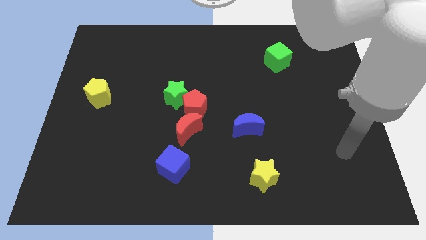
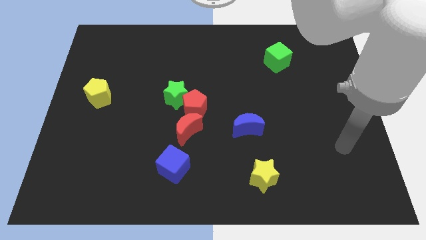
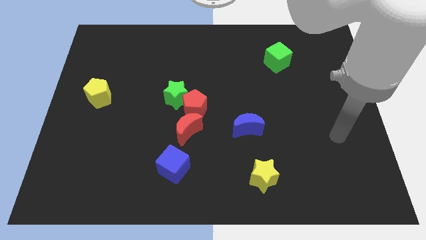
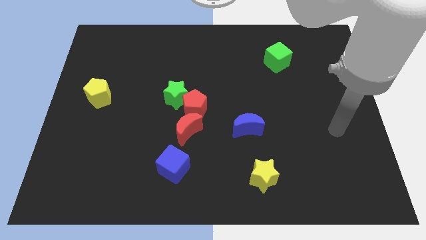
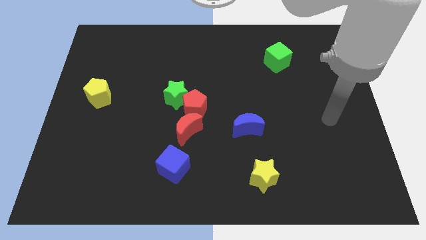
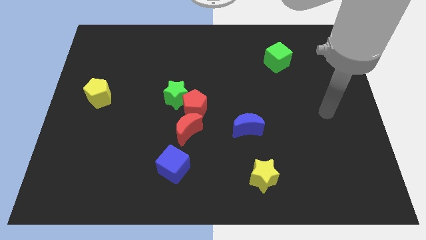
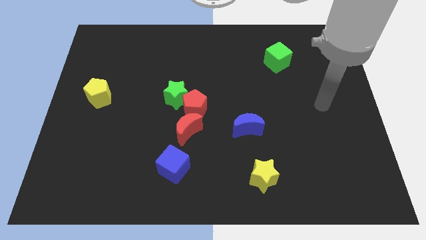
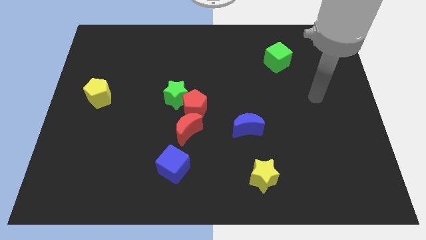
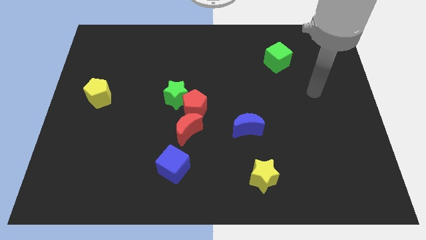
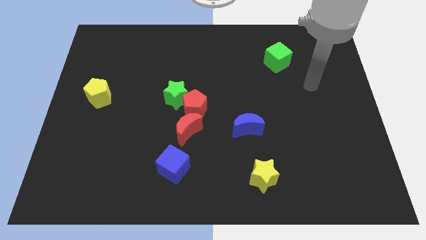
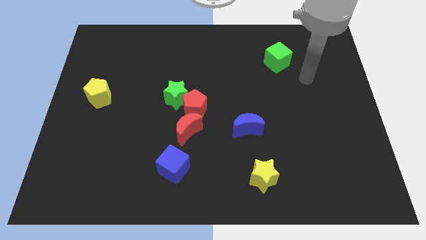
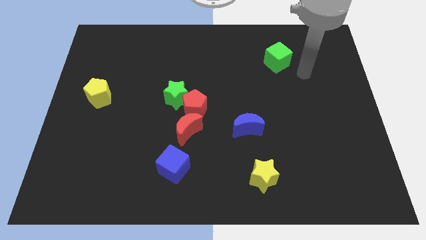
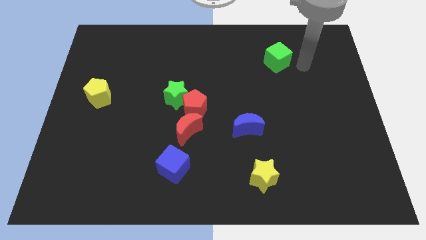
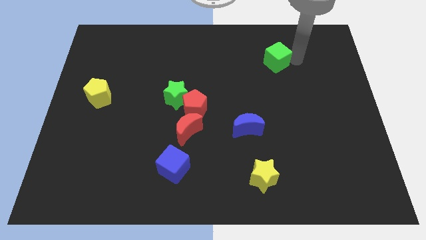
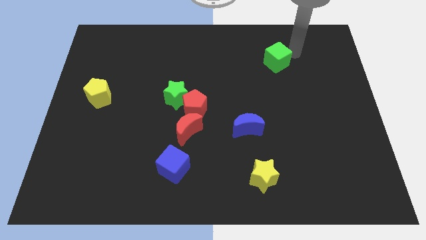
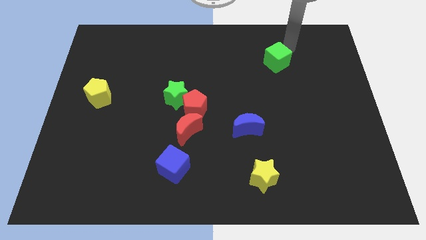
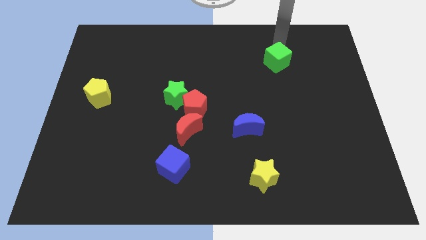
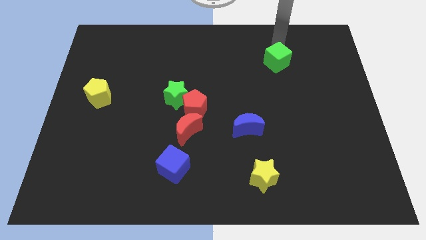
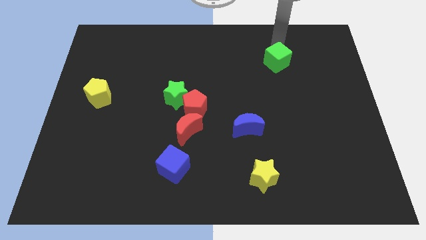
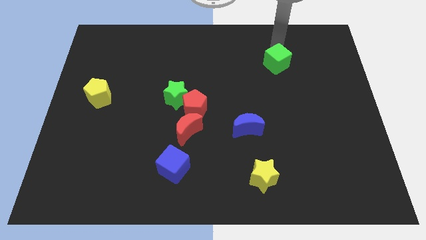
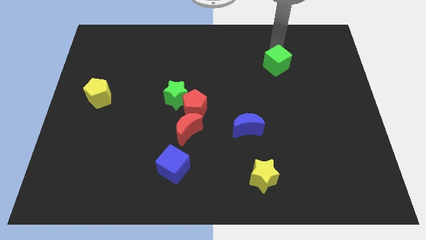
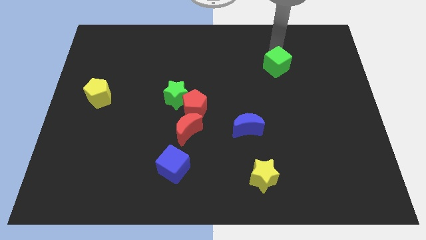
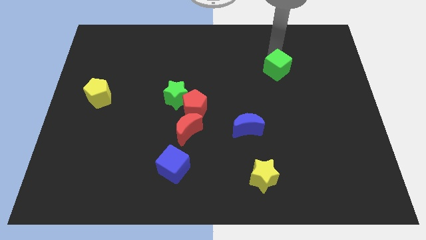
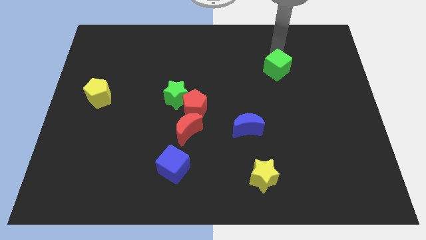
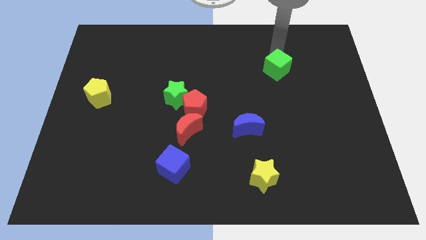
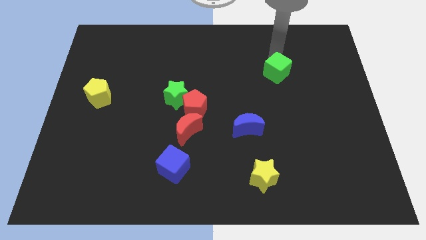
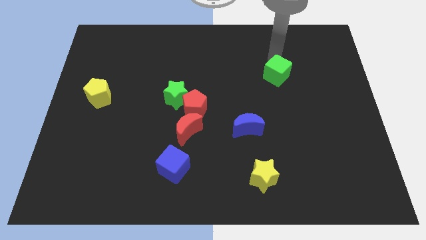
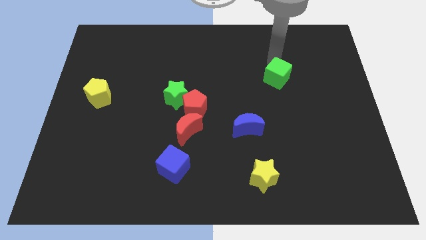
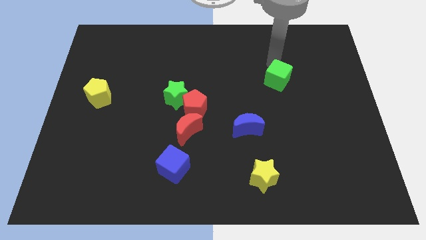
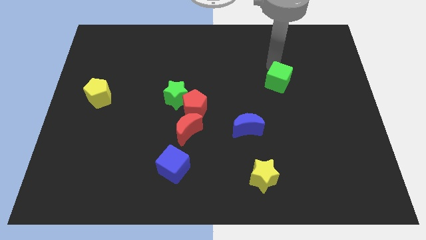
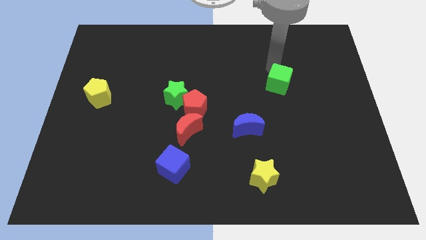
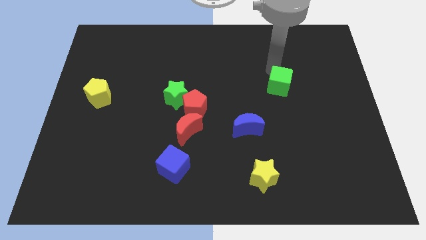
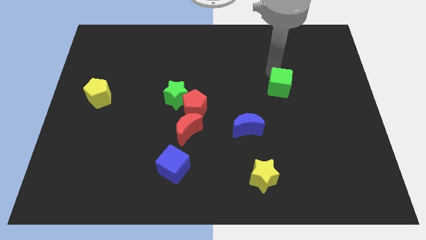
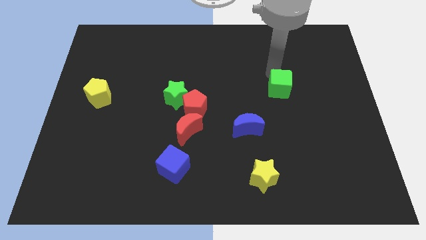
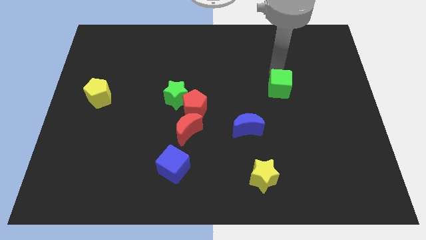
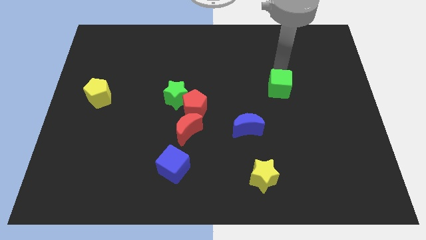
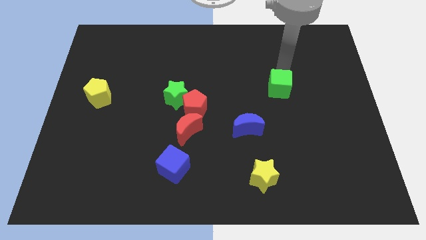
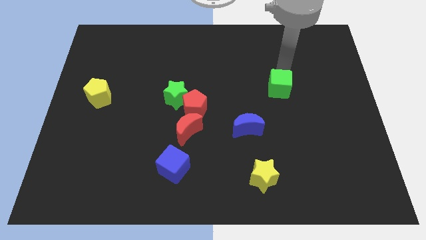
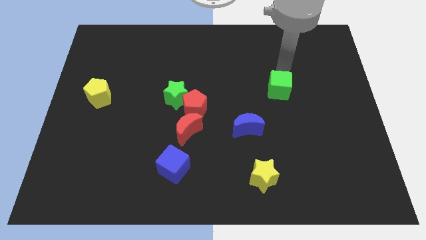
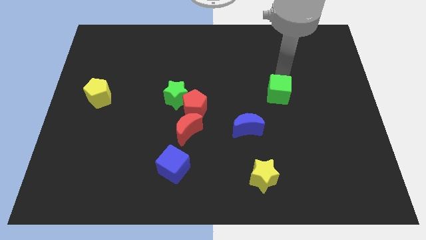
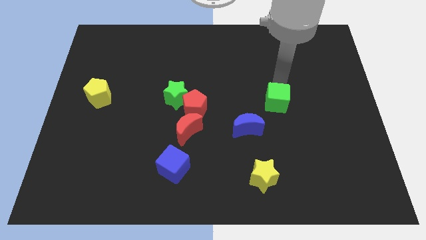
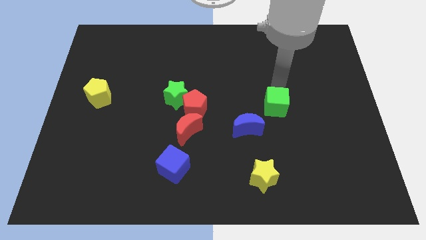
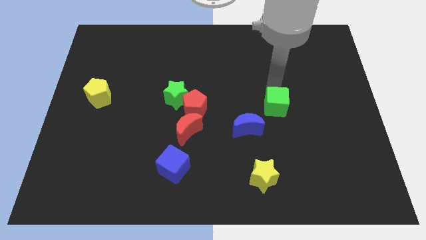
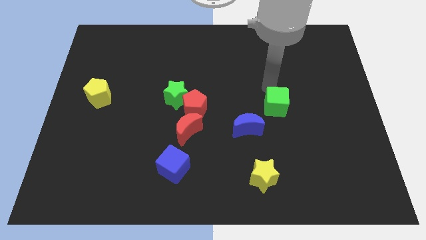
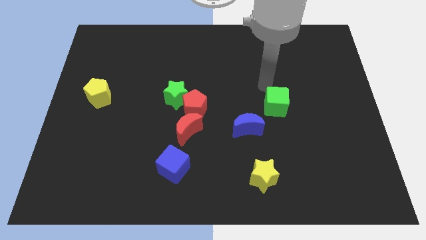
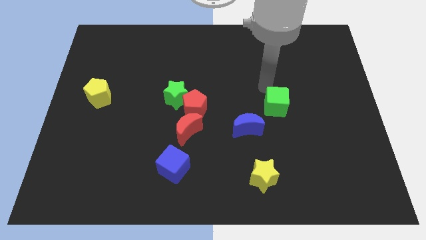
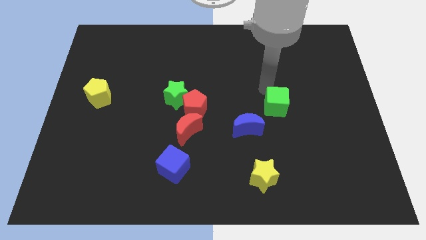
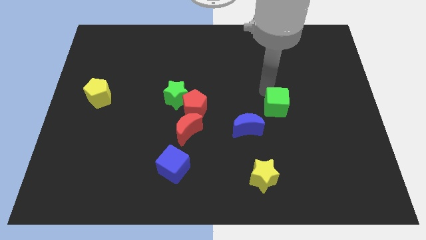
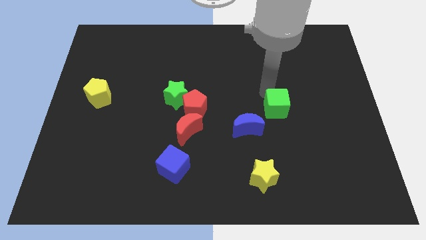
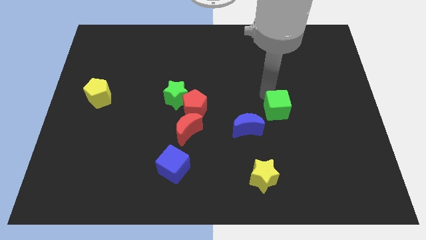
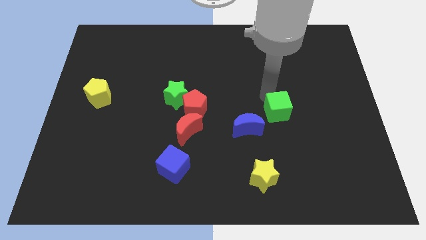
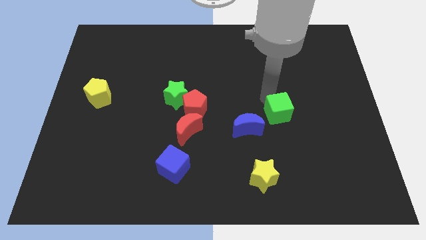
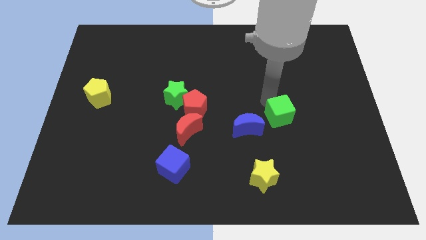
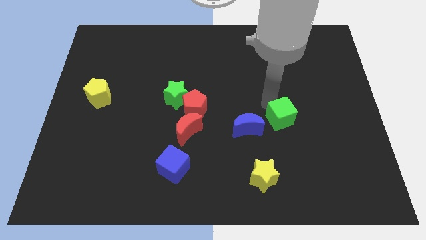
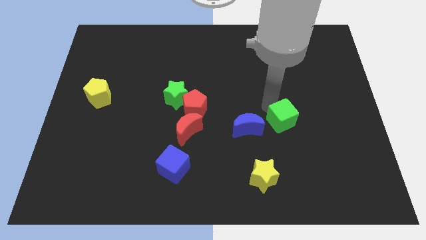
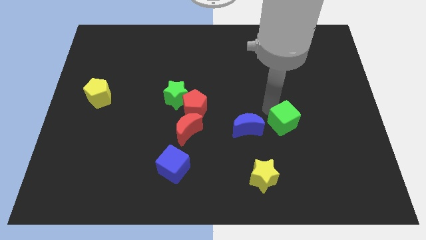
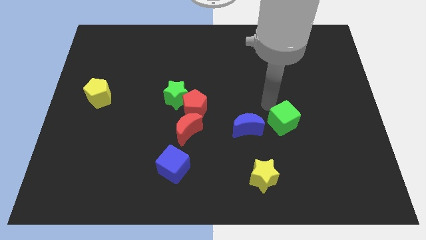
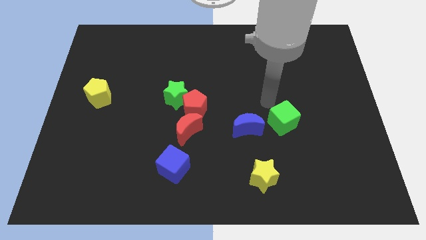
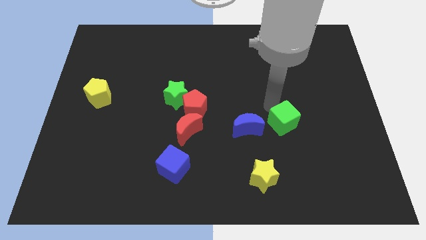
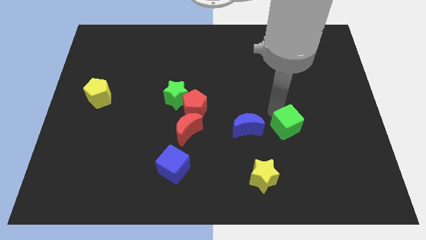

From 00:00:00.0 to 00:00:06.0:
slide the green cube down

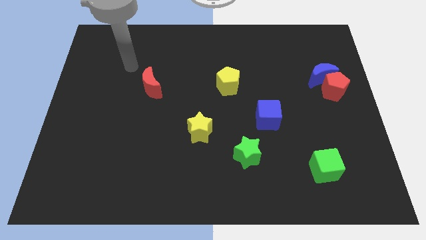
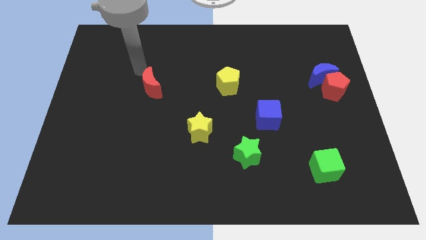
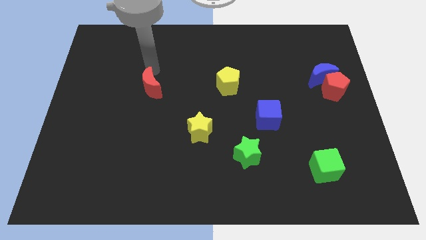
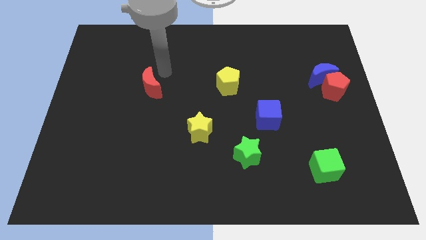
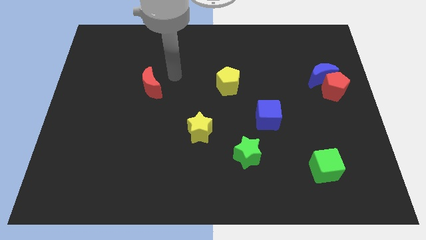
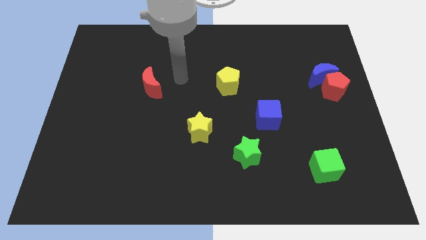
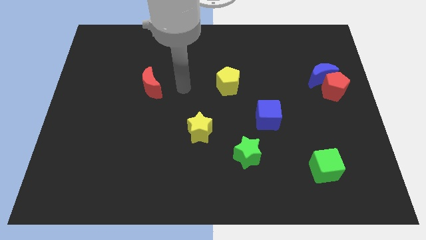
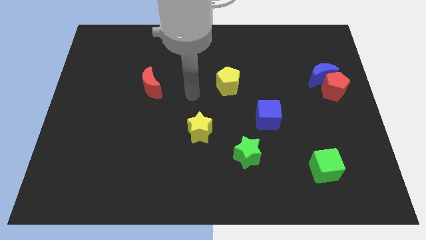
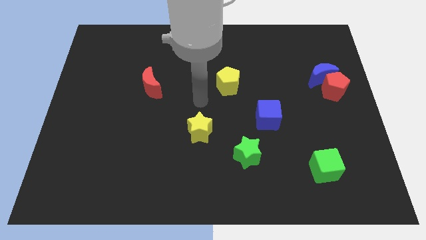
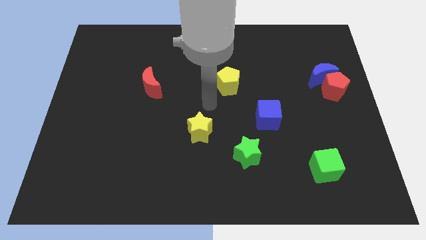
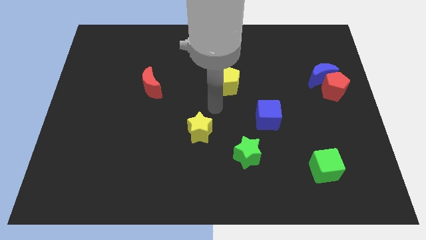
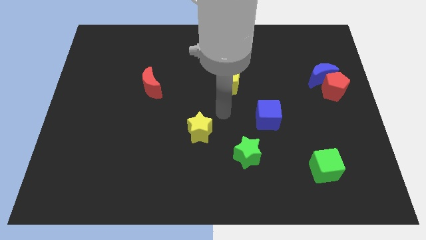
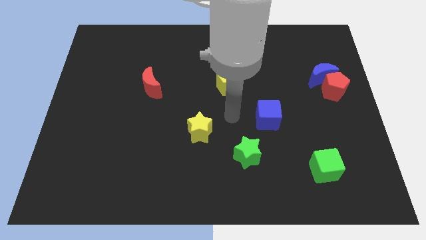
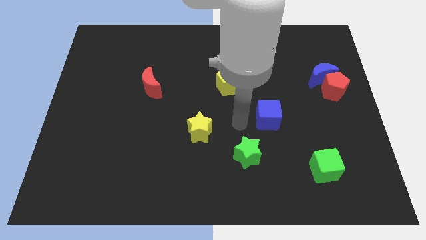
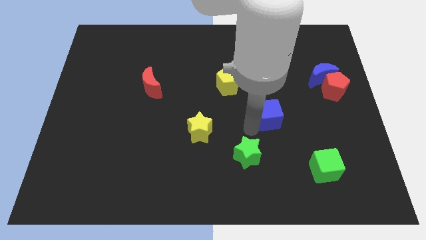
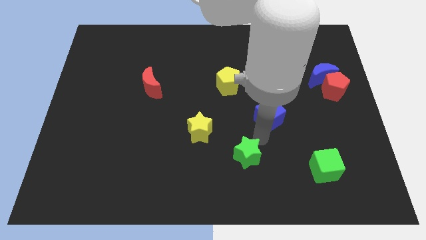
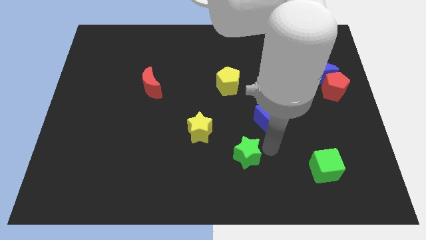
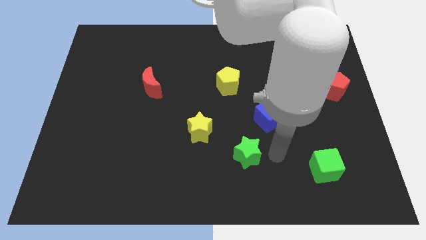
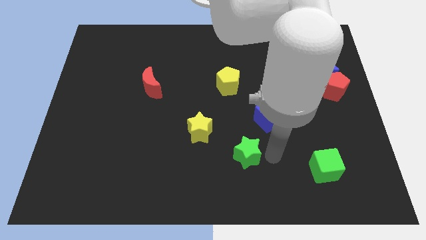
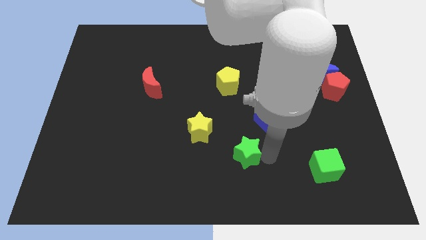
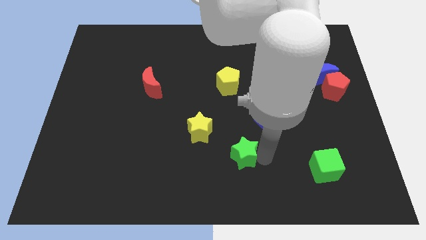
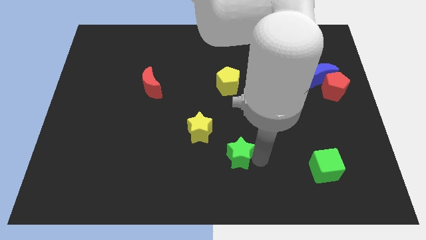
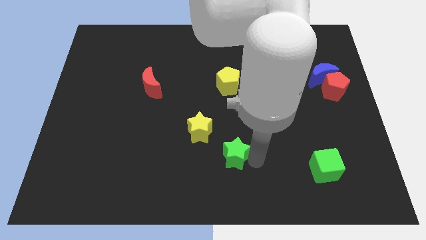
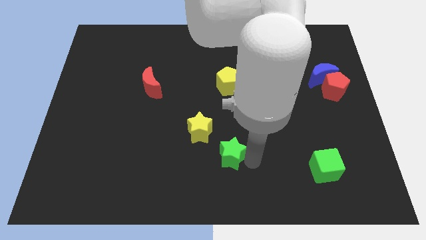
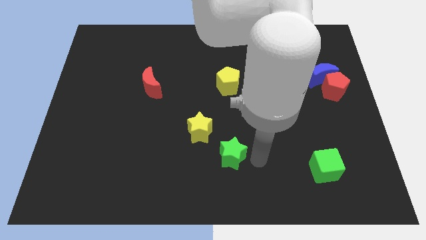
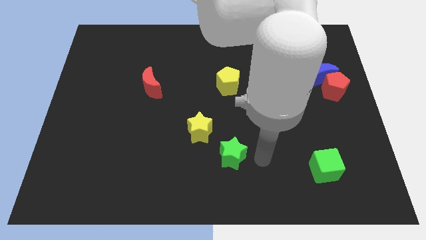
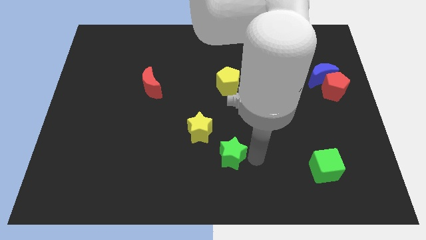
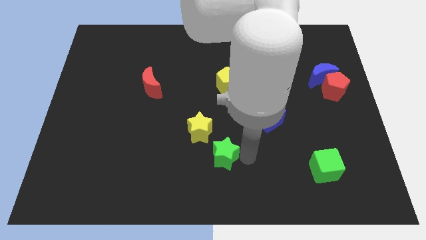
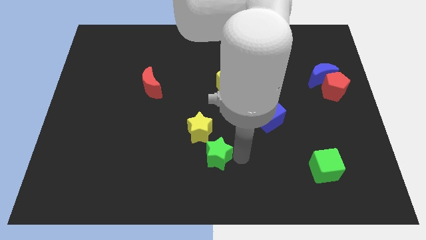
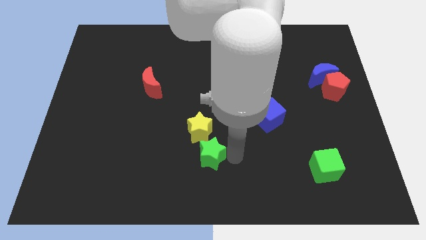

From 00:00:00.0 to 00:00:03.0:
slightly push the green star left
